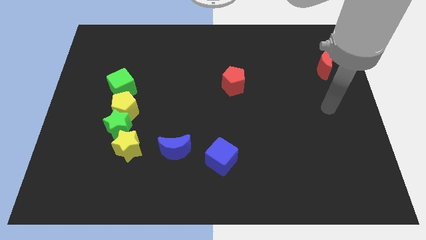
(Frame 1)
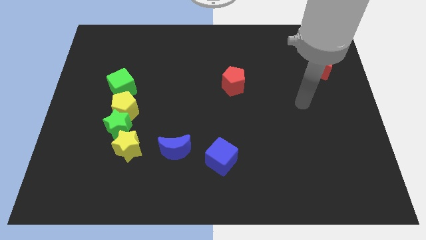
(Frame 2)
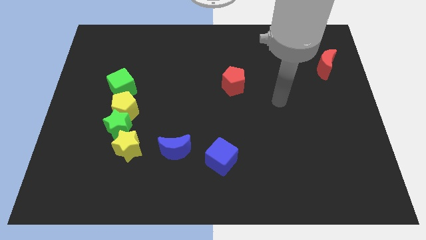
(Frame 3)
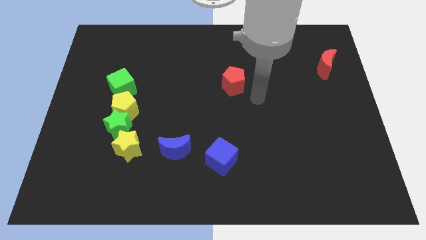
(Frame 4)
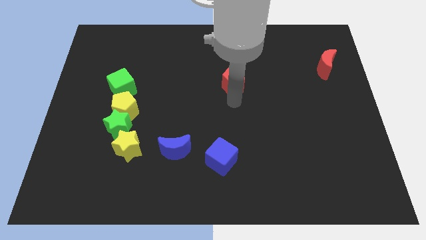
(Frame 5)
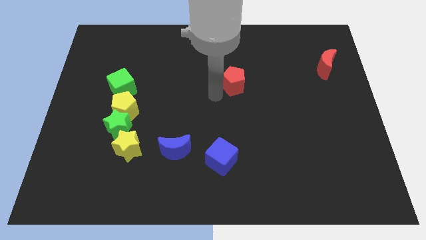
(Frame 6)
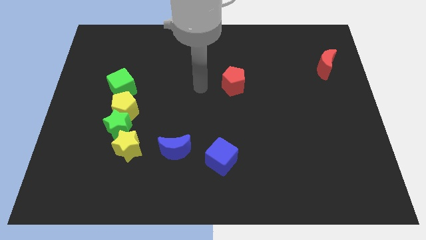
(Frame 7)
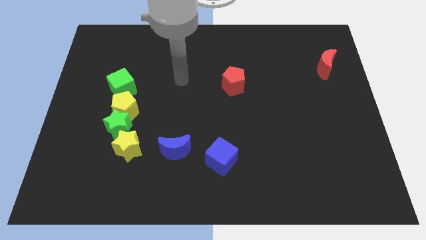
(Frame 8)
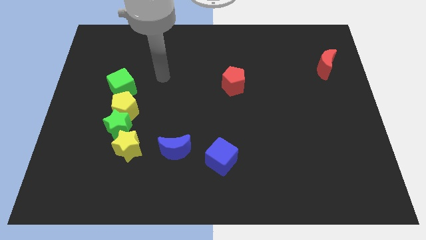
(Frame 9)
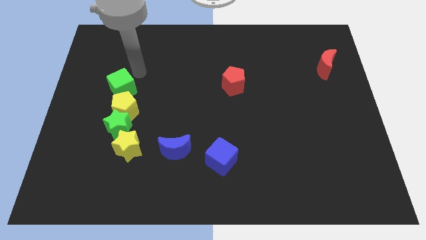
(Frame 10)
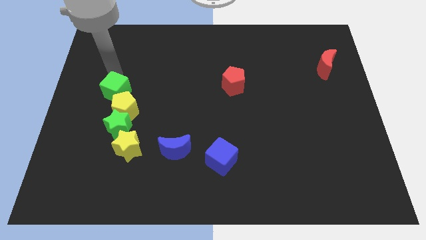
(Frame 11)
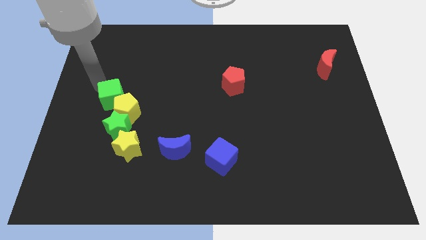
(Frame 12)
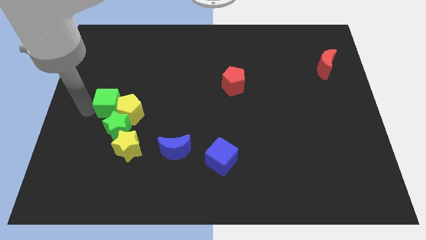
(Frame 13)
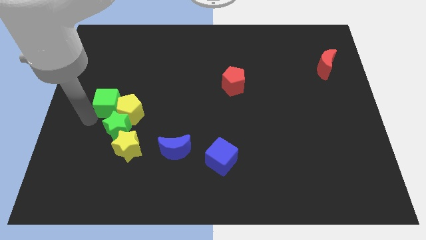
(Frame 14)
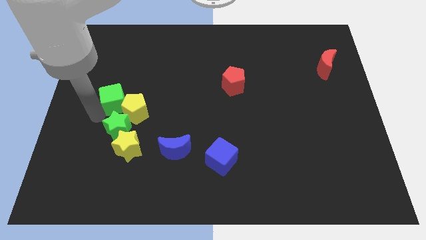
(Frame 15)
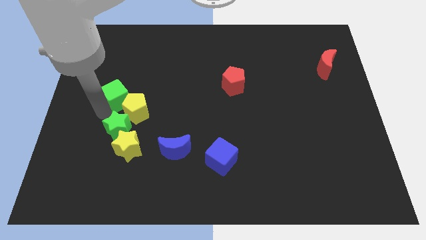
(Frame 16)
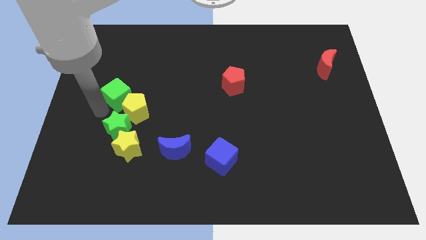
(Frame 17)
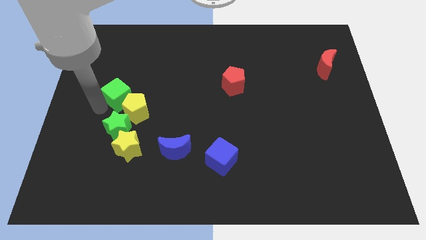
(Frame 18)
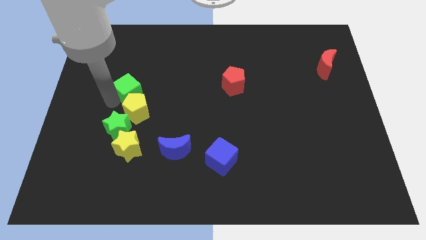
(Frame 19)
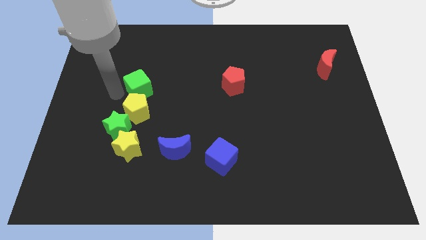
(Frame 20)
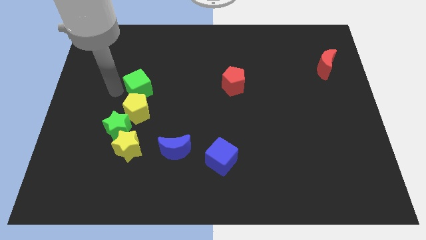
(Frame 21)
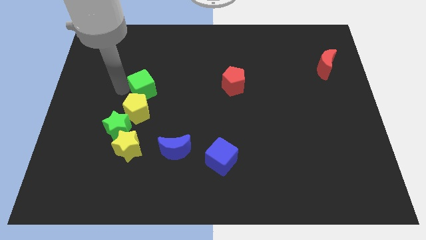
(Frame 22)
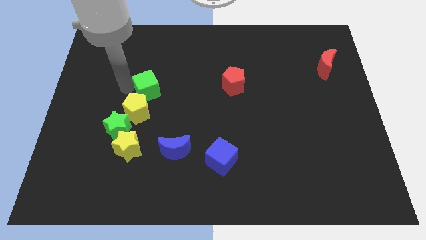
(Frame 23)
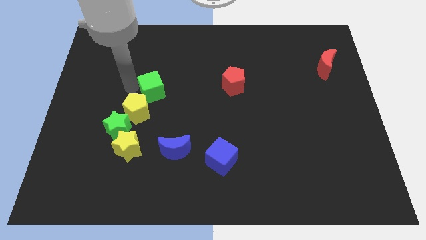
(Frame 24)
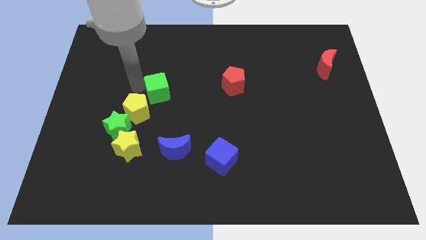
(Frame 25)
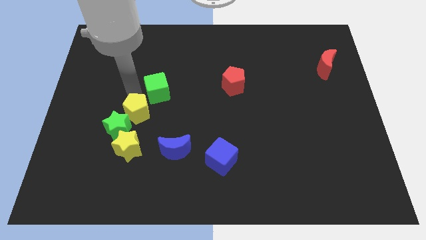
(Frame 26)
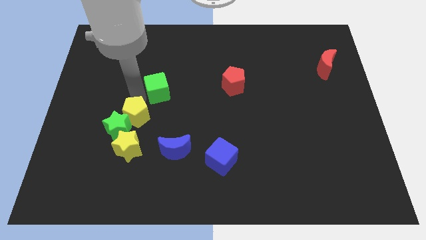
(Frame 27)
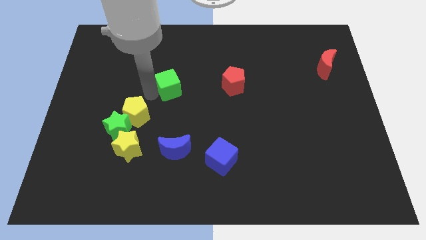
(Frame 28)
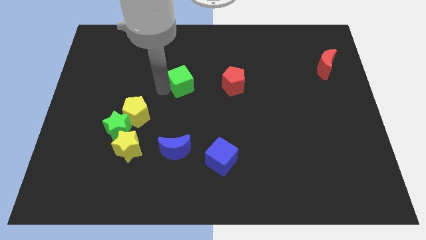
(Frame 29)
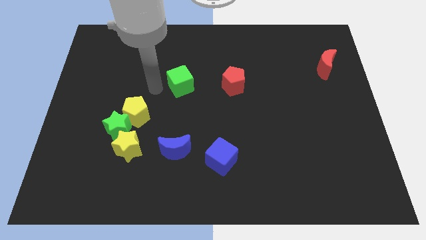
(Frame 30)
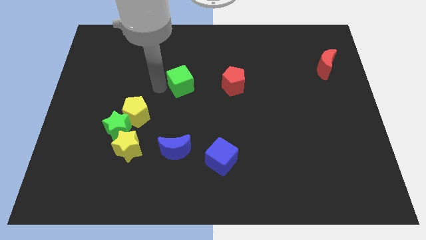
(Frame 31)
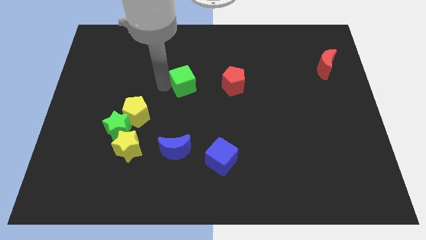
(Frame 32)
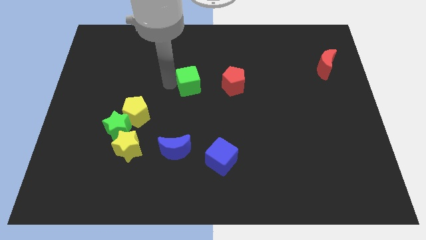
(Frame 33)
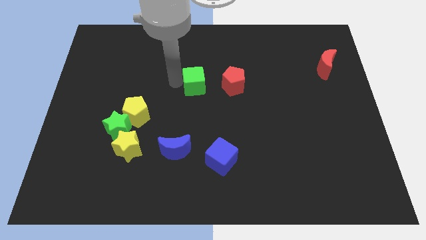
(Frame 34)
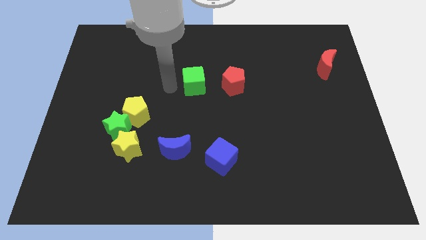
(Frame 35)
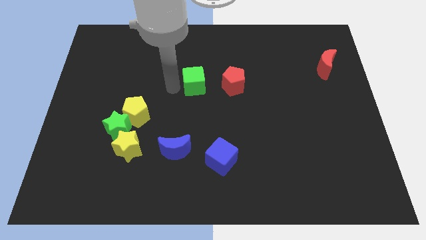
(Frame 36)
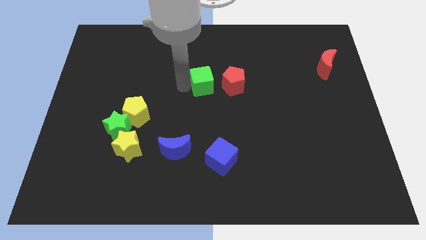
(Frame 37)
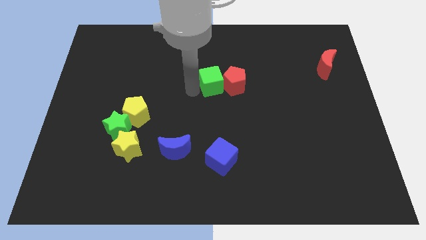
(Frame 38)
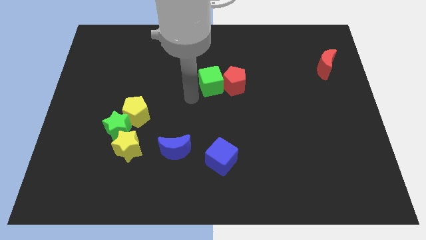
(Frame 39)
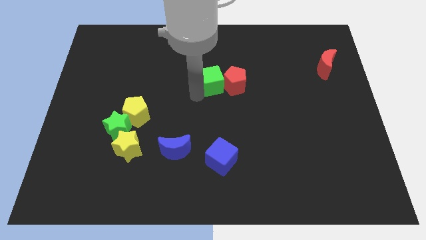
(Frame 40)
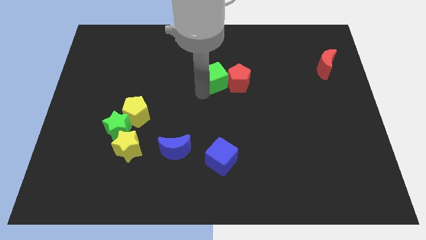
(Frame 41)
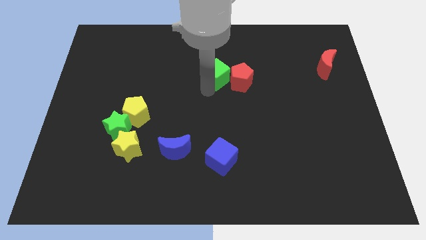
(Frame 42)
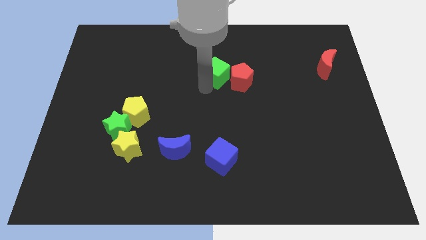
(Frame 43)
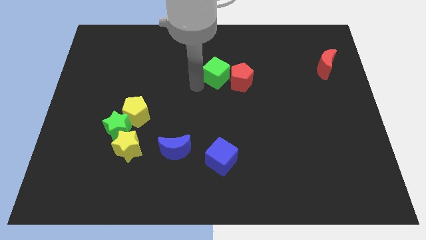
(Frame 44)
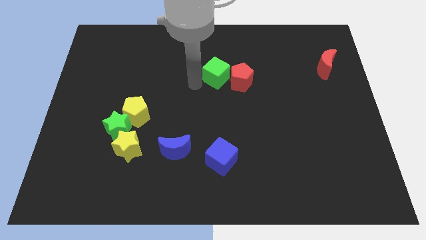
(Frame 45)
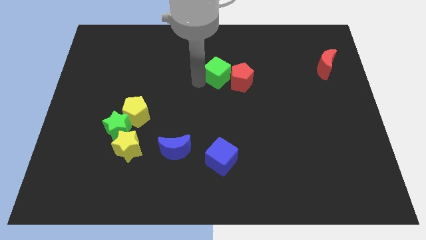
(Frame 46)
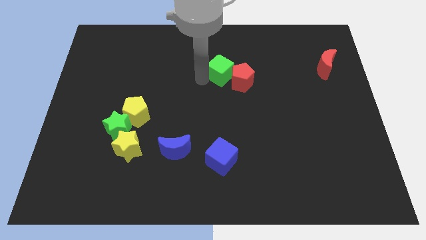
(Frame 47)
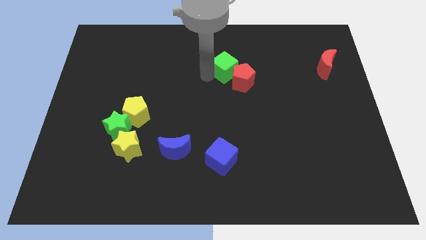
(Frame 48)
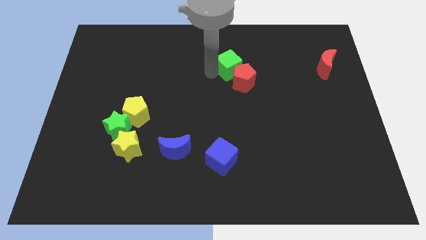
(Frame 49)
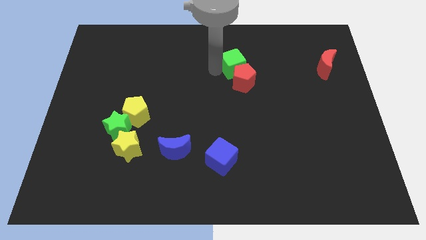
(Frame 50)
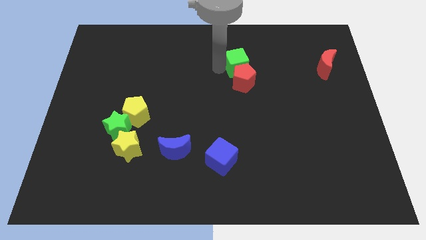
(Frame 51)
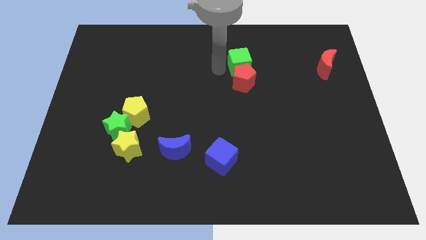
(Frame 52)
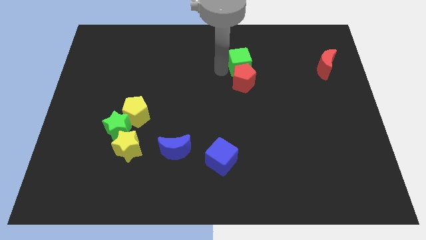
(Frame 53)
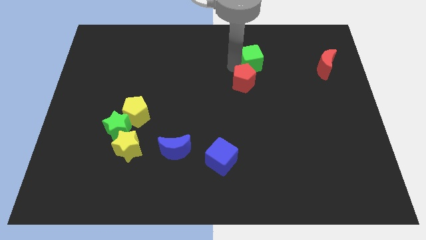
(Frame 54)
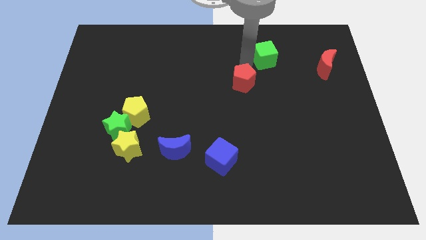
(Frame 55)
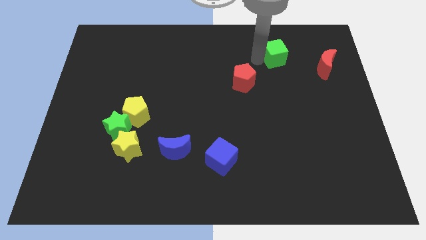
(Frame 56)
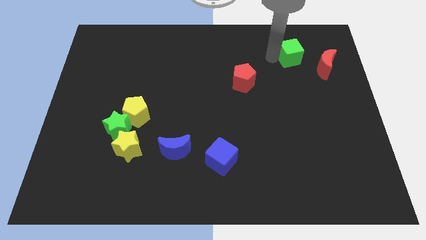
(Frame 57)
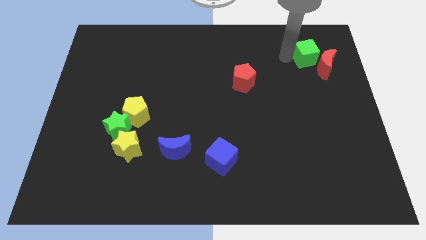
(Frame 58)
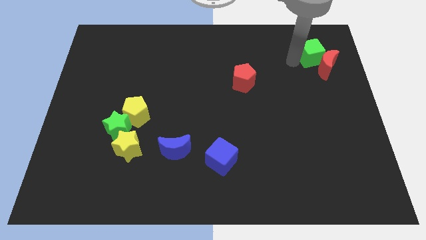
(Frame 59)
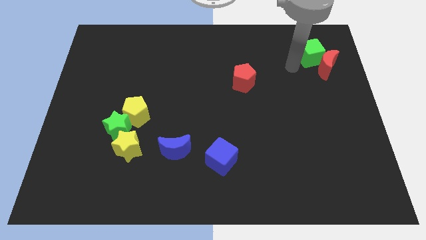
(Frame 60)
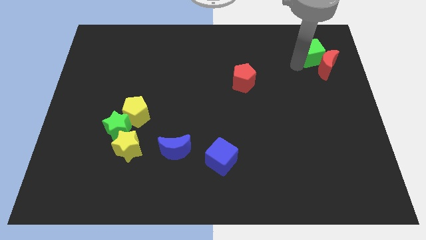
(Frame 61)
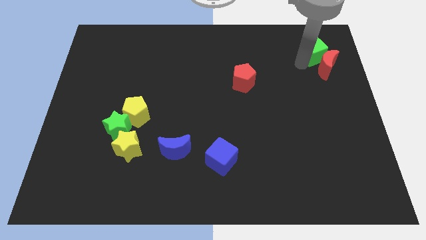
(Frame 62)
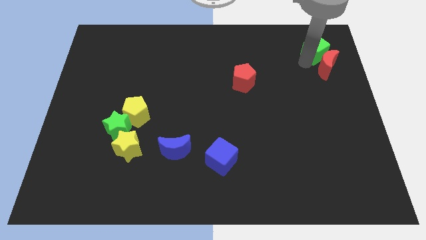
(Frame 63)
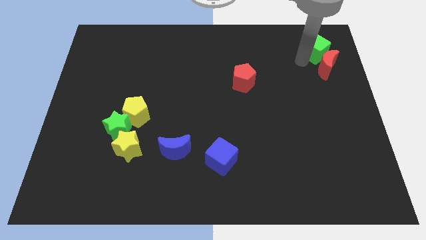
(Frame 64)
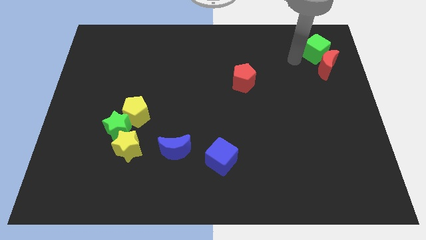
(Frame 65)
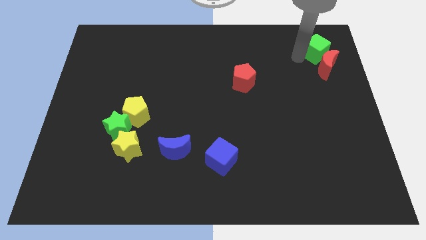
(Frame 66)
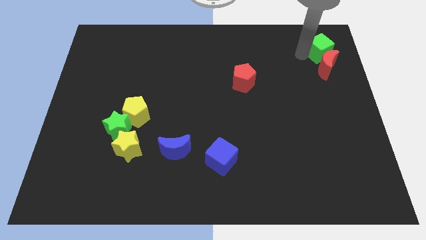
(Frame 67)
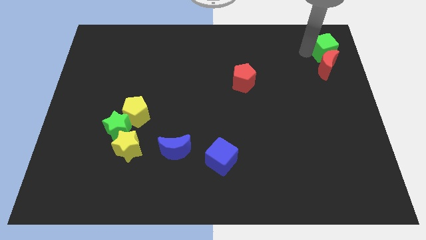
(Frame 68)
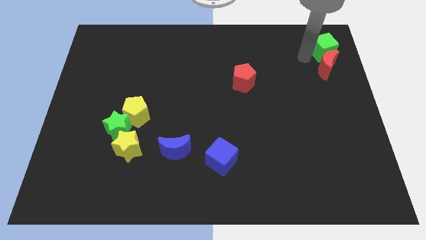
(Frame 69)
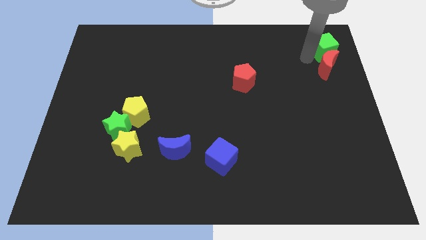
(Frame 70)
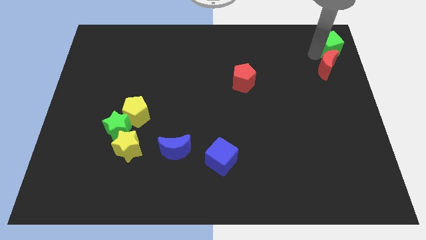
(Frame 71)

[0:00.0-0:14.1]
move the green cube to the upper right corner
